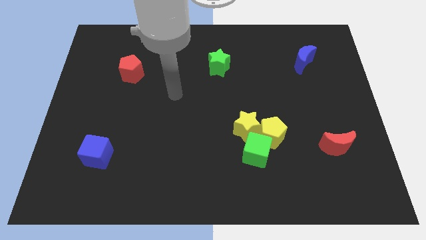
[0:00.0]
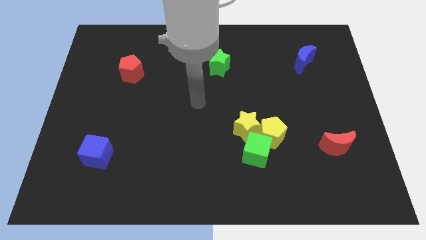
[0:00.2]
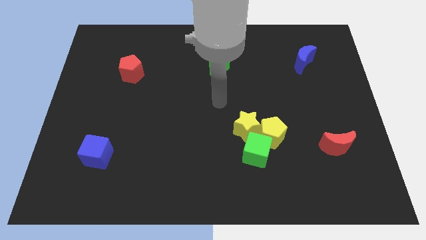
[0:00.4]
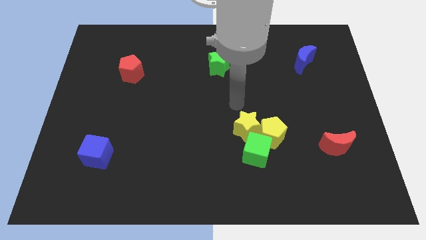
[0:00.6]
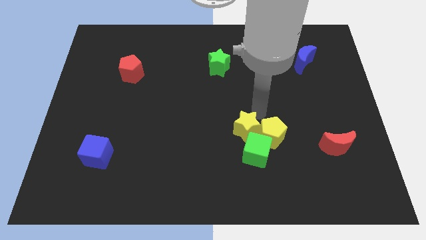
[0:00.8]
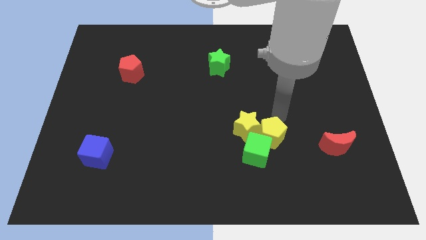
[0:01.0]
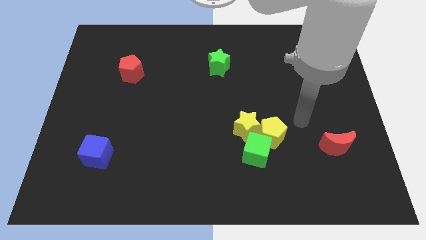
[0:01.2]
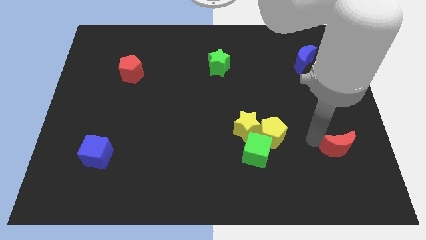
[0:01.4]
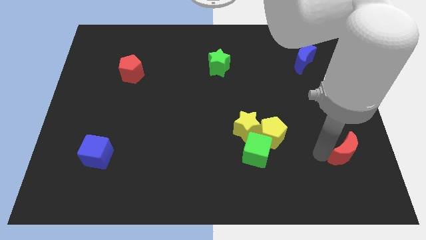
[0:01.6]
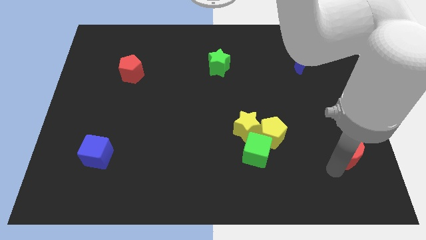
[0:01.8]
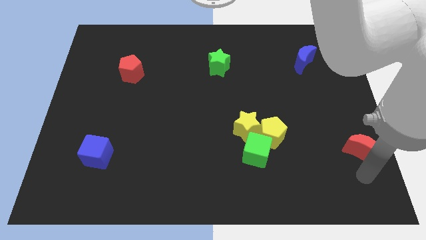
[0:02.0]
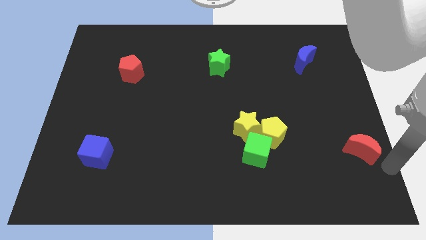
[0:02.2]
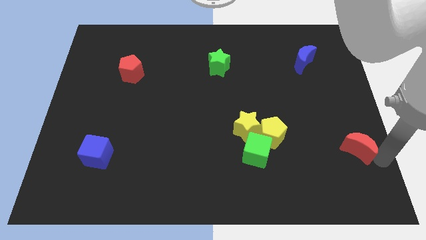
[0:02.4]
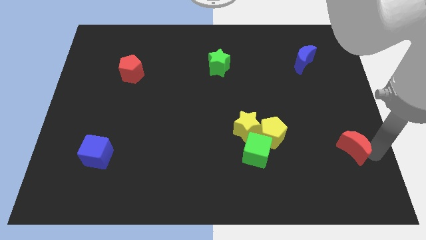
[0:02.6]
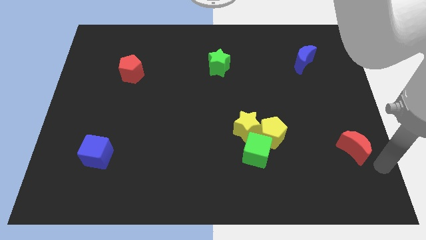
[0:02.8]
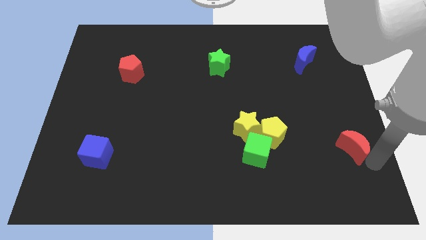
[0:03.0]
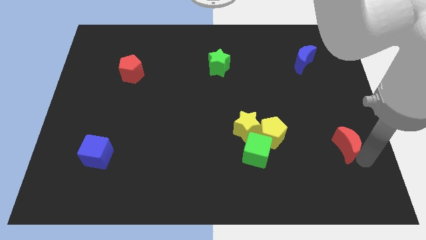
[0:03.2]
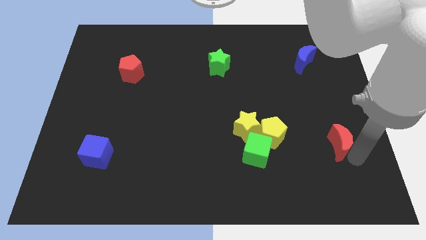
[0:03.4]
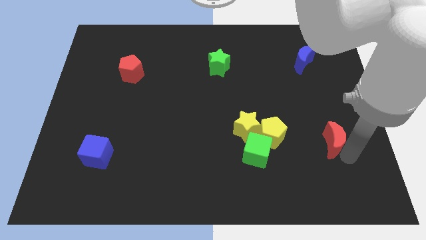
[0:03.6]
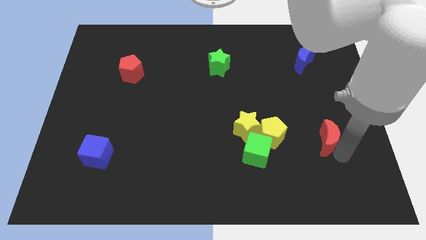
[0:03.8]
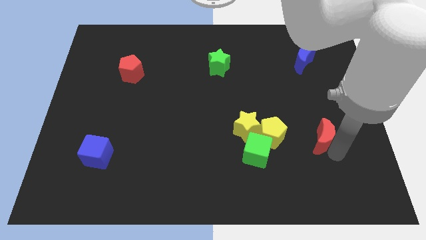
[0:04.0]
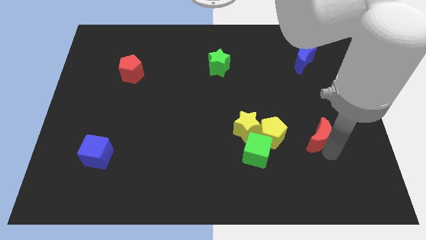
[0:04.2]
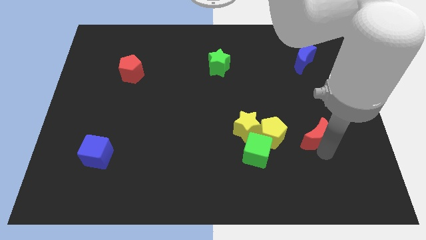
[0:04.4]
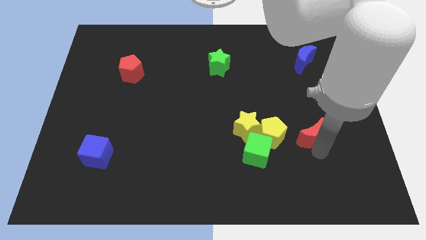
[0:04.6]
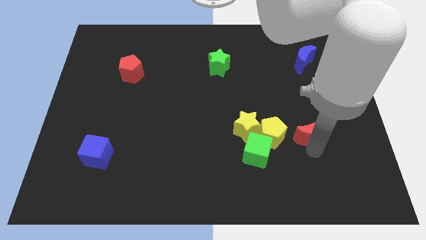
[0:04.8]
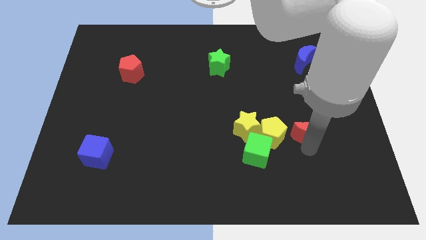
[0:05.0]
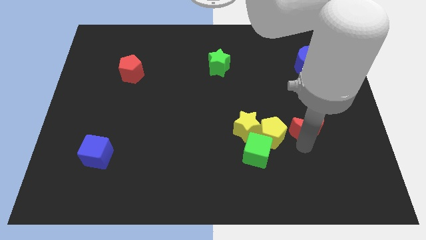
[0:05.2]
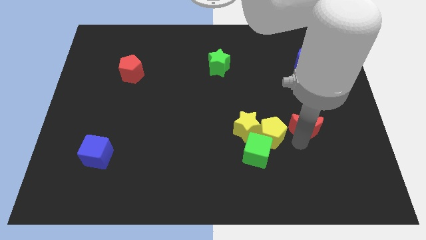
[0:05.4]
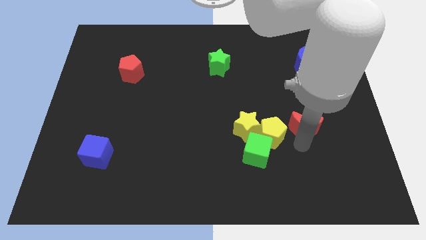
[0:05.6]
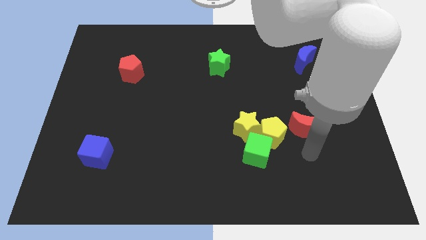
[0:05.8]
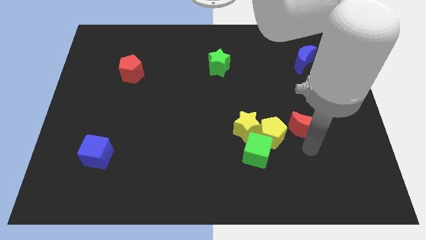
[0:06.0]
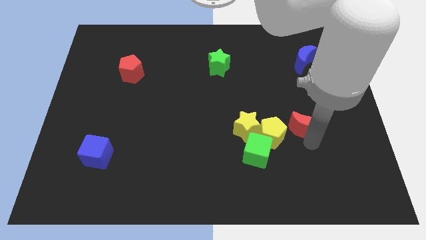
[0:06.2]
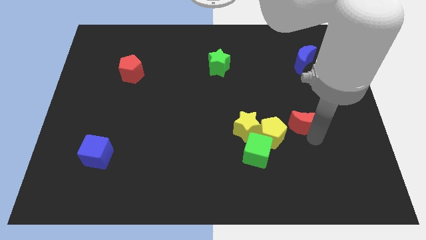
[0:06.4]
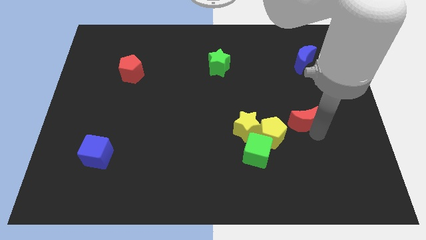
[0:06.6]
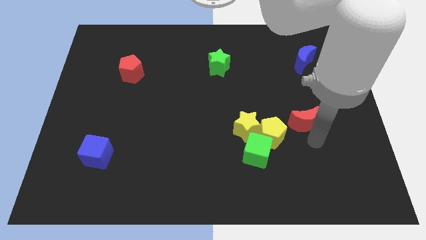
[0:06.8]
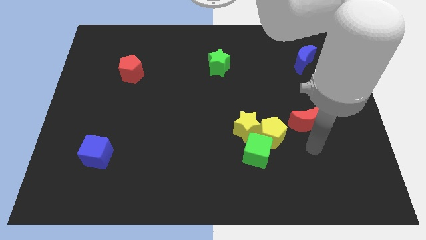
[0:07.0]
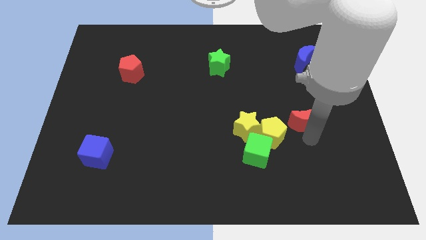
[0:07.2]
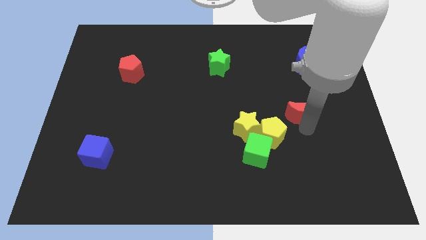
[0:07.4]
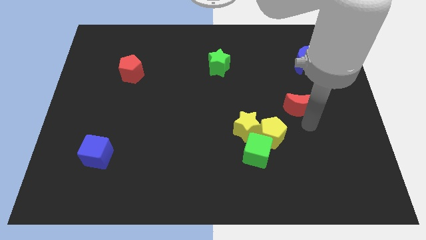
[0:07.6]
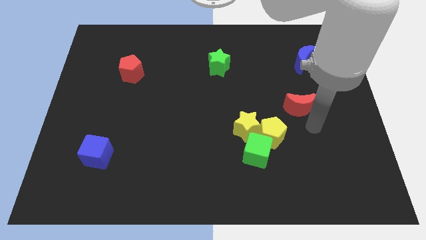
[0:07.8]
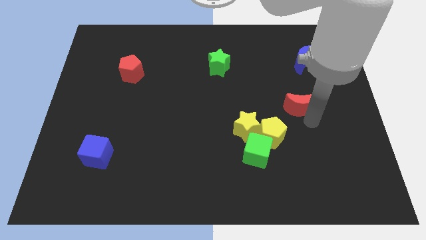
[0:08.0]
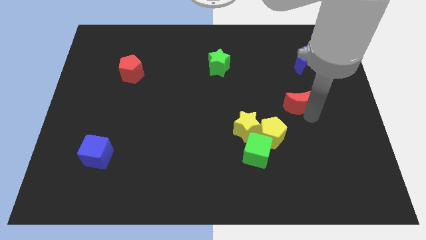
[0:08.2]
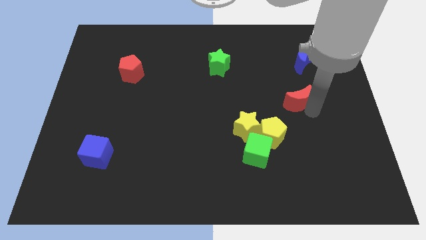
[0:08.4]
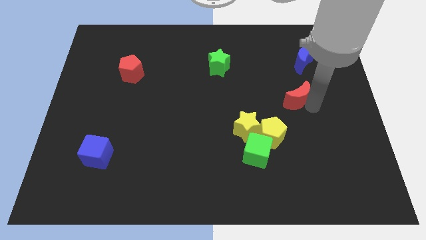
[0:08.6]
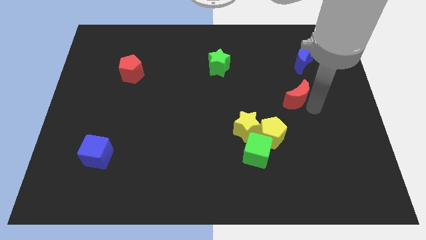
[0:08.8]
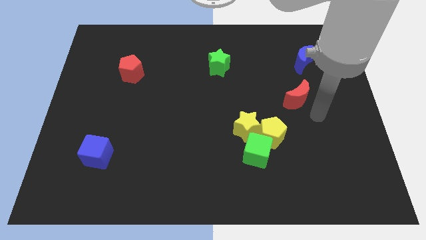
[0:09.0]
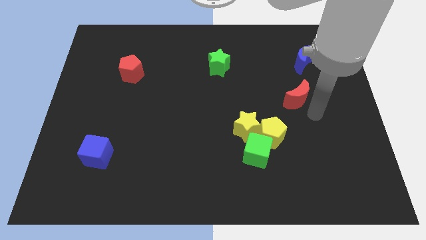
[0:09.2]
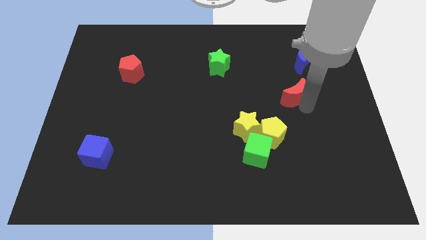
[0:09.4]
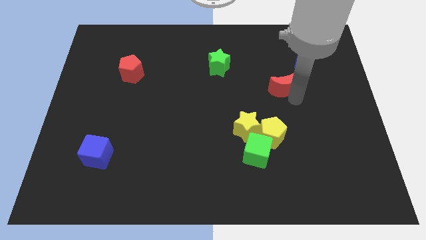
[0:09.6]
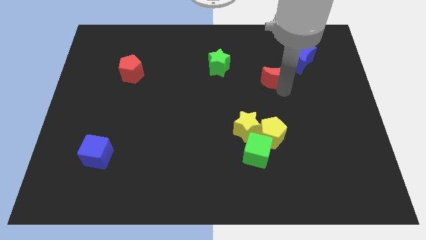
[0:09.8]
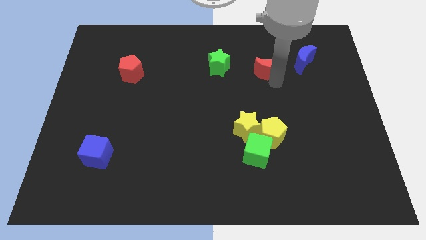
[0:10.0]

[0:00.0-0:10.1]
put the red moon left of the blue moon

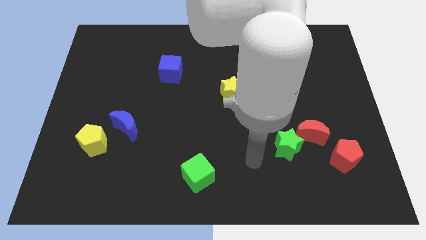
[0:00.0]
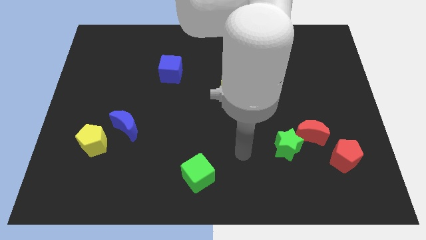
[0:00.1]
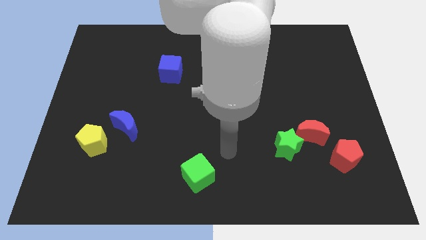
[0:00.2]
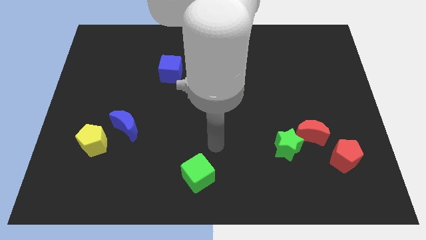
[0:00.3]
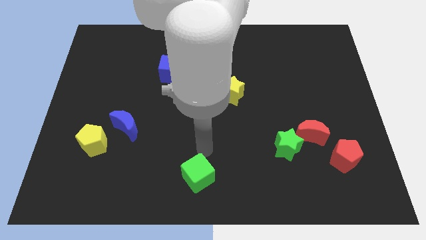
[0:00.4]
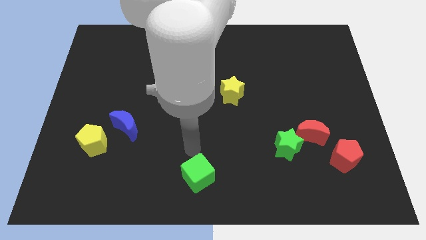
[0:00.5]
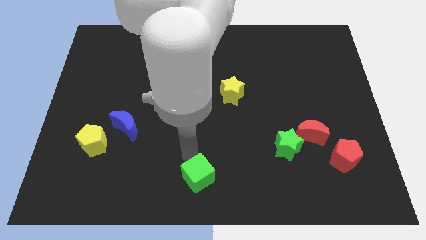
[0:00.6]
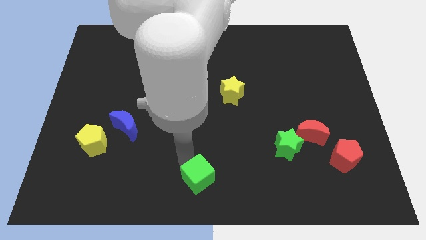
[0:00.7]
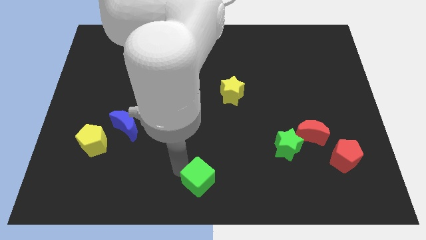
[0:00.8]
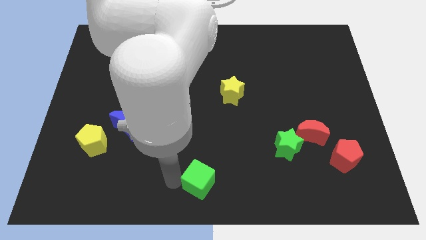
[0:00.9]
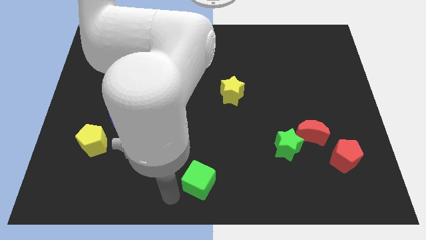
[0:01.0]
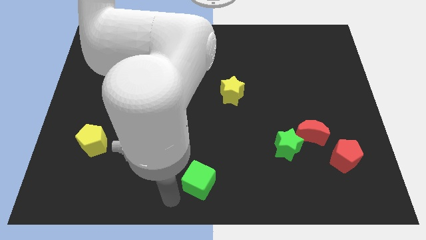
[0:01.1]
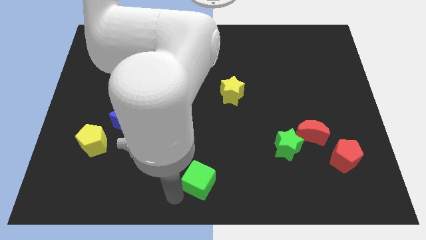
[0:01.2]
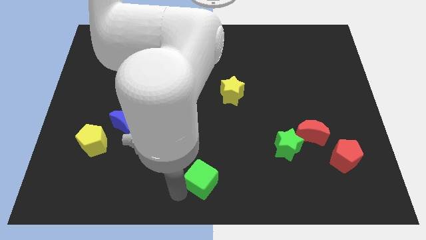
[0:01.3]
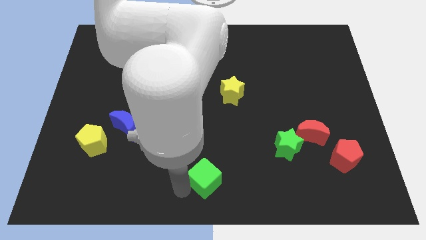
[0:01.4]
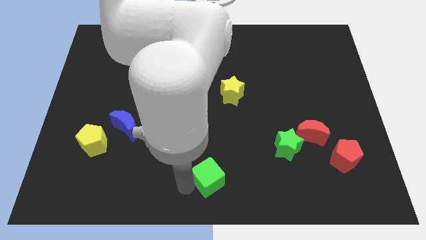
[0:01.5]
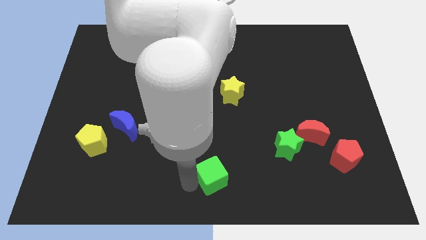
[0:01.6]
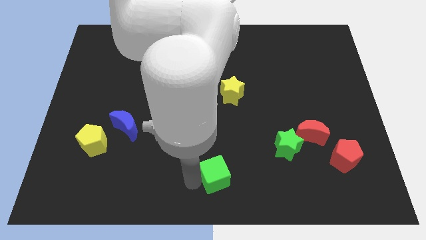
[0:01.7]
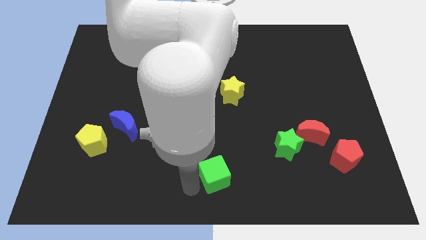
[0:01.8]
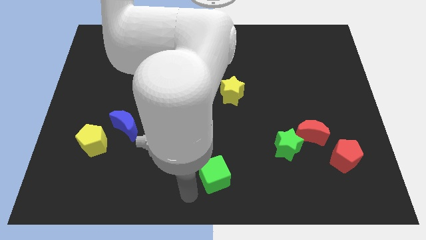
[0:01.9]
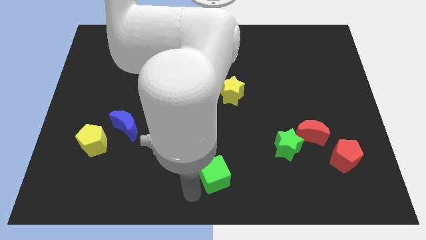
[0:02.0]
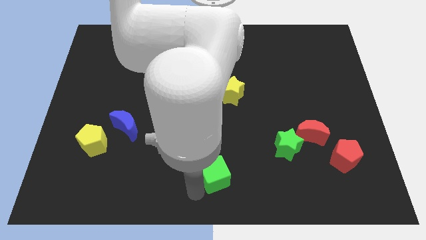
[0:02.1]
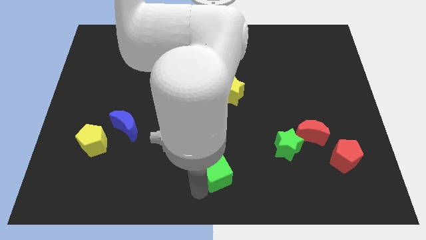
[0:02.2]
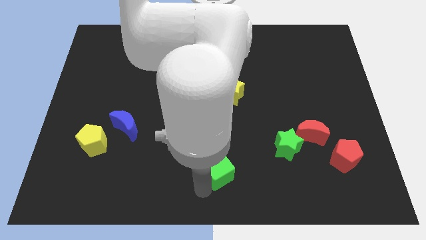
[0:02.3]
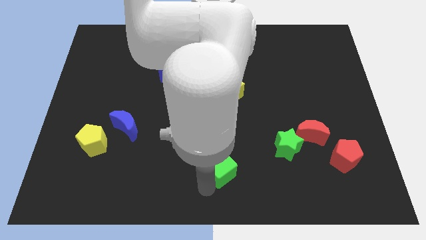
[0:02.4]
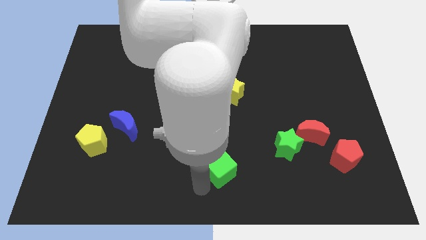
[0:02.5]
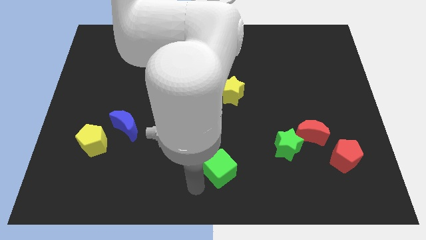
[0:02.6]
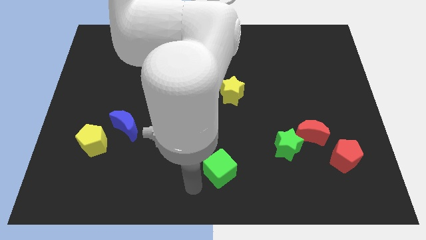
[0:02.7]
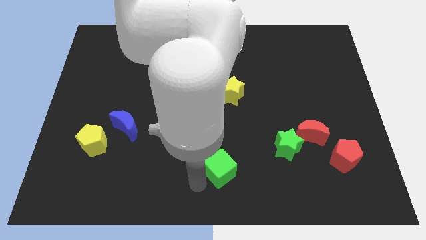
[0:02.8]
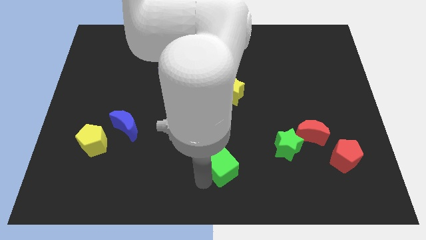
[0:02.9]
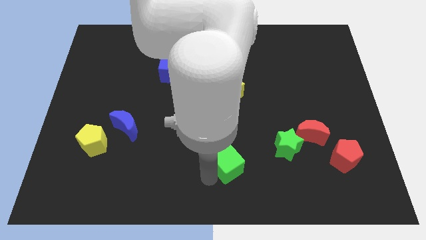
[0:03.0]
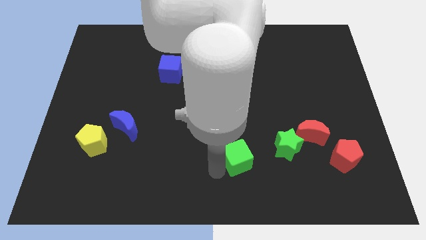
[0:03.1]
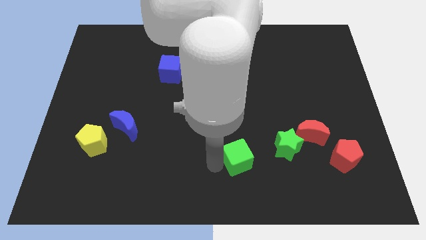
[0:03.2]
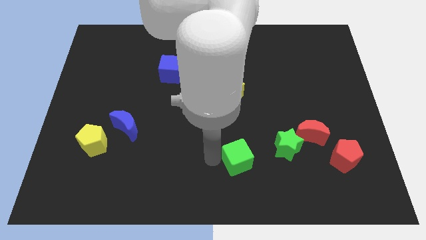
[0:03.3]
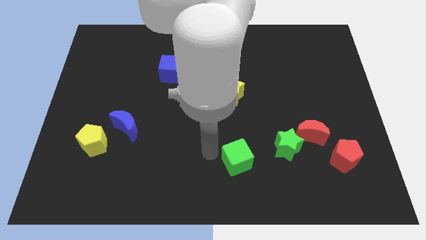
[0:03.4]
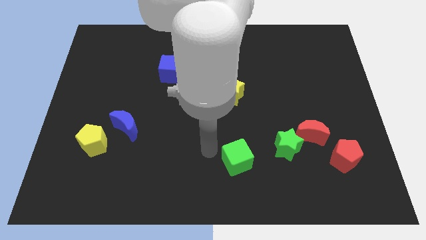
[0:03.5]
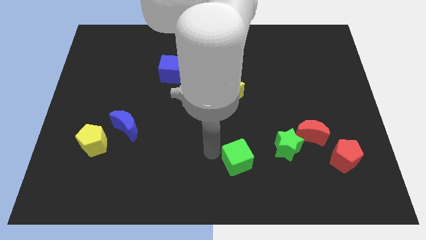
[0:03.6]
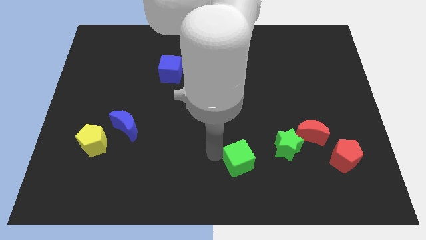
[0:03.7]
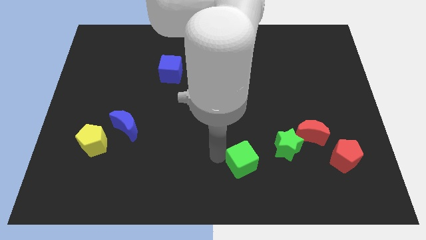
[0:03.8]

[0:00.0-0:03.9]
push the green cube diagonally down and to the left of the green star
